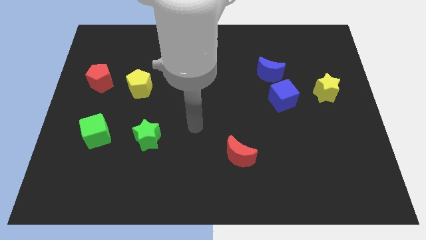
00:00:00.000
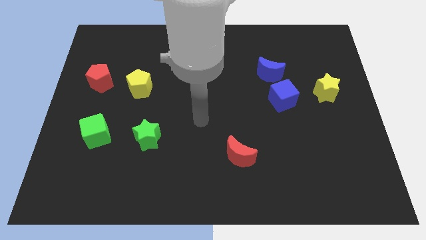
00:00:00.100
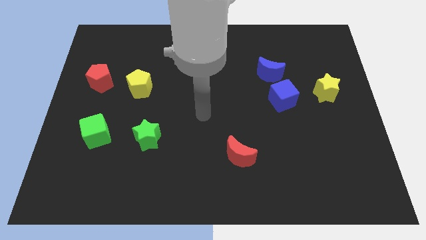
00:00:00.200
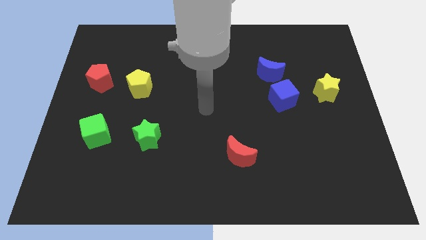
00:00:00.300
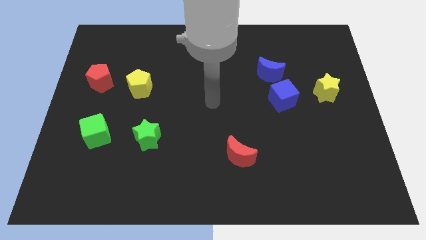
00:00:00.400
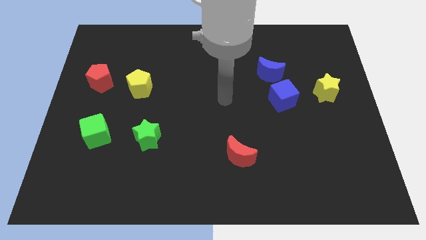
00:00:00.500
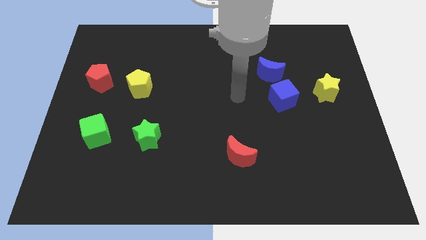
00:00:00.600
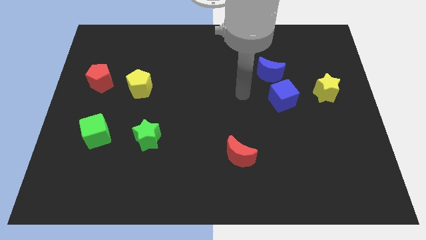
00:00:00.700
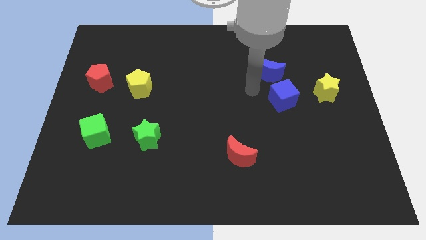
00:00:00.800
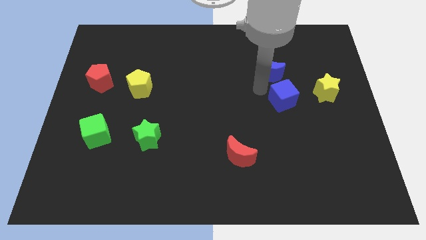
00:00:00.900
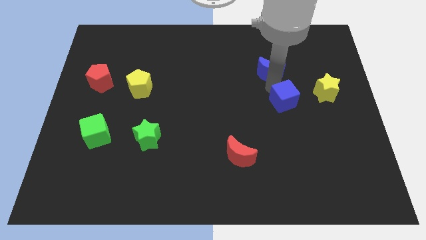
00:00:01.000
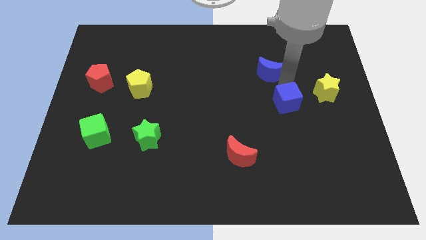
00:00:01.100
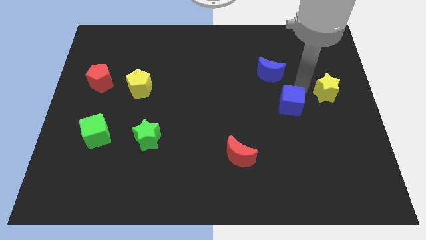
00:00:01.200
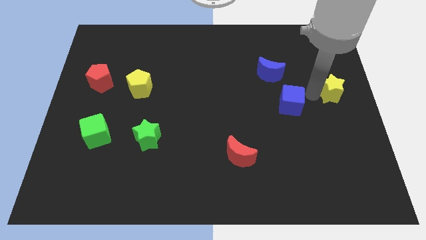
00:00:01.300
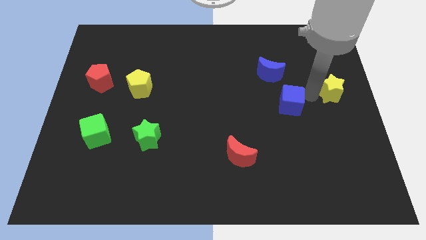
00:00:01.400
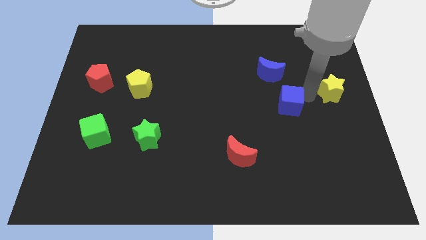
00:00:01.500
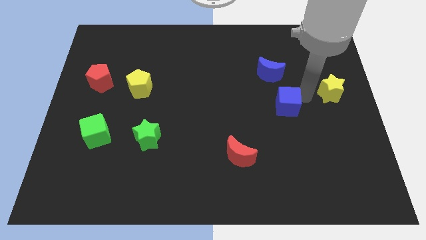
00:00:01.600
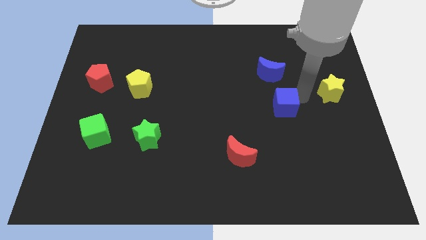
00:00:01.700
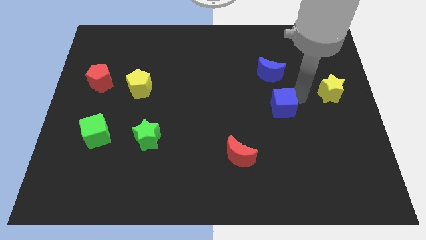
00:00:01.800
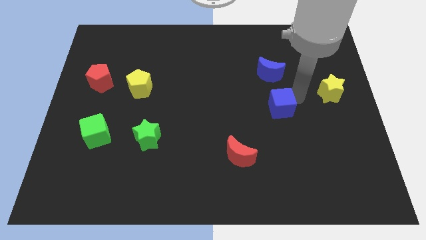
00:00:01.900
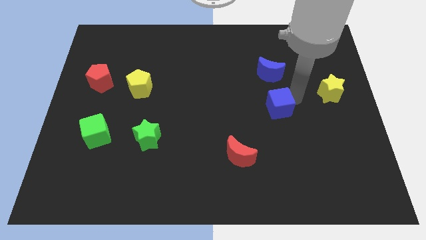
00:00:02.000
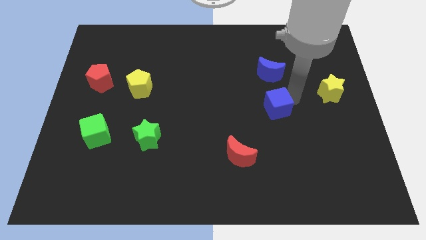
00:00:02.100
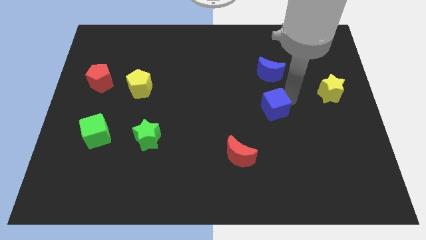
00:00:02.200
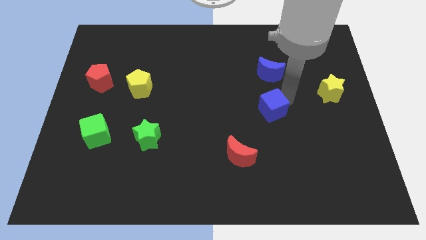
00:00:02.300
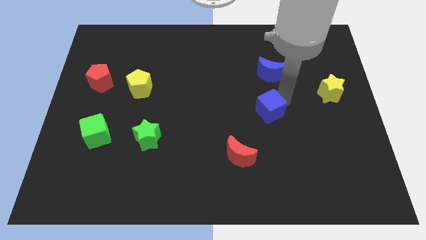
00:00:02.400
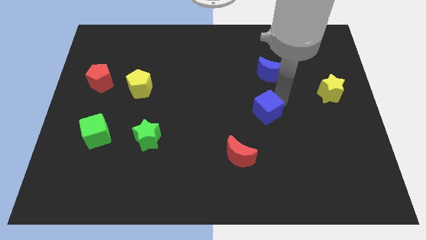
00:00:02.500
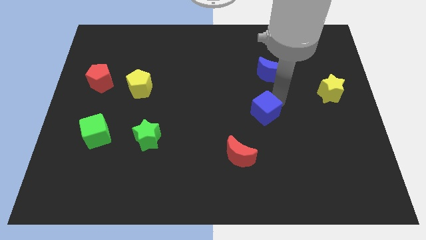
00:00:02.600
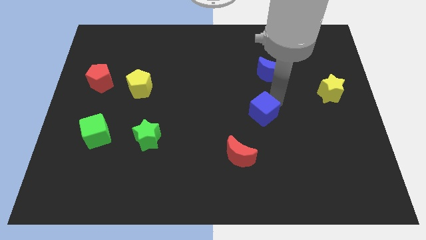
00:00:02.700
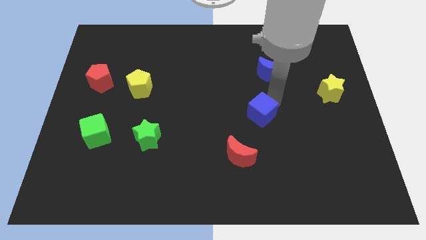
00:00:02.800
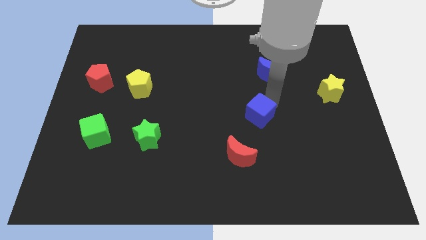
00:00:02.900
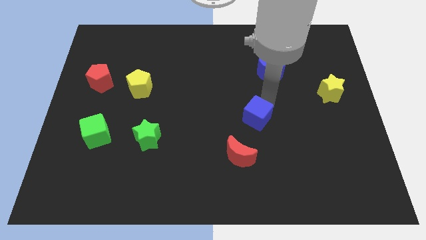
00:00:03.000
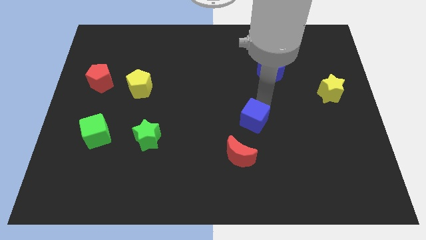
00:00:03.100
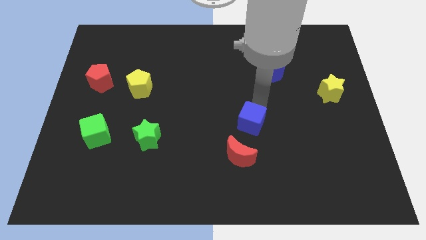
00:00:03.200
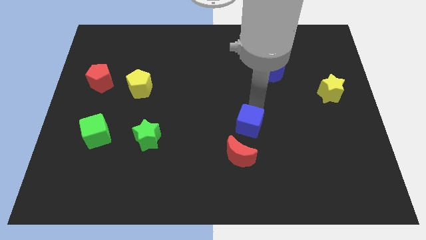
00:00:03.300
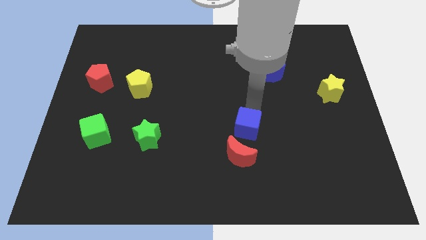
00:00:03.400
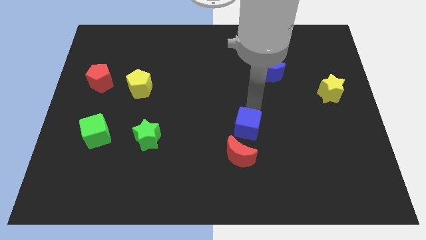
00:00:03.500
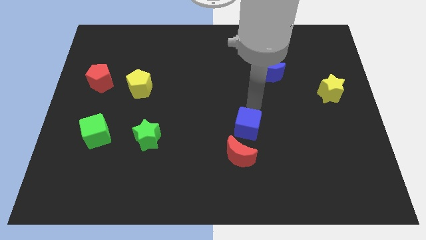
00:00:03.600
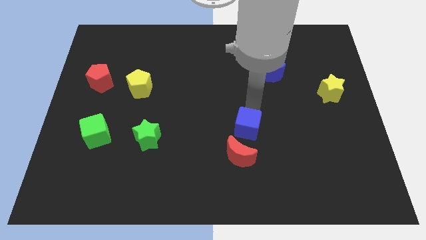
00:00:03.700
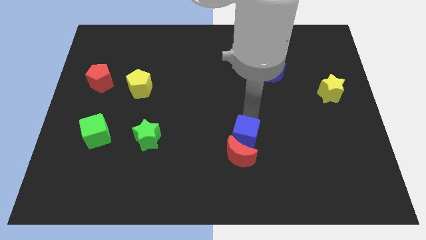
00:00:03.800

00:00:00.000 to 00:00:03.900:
put the blue cube next to the red moon

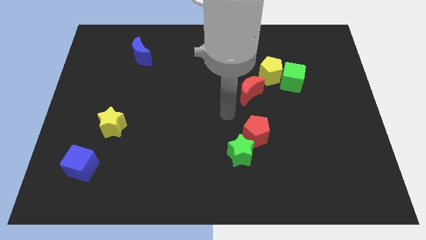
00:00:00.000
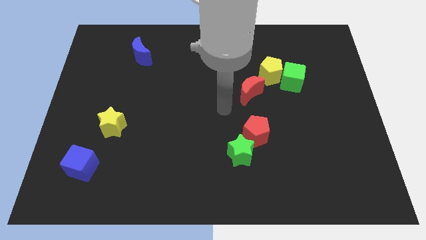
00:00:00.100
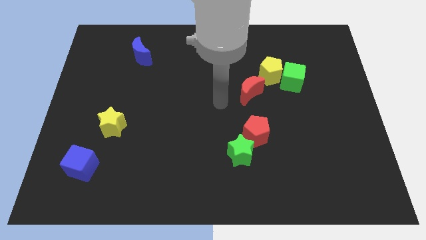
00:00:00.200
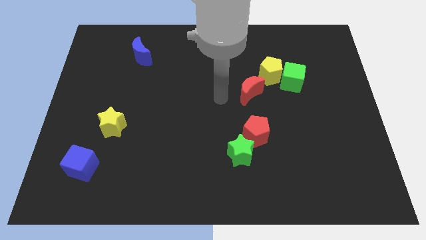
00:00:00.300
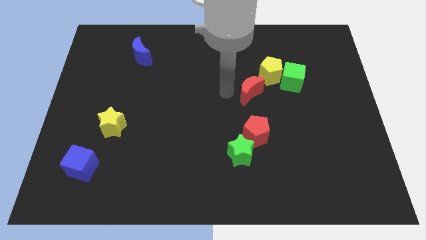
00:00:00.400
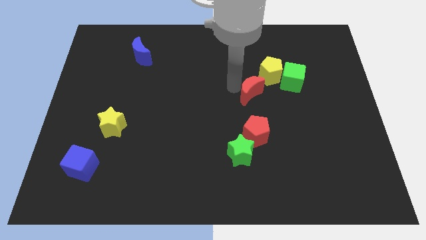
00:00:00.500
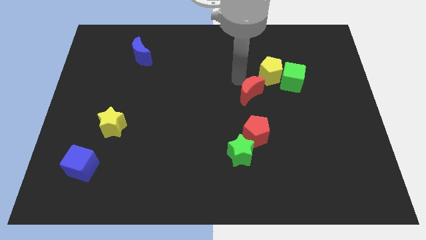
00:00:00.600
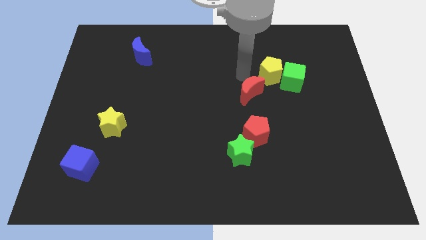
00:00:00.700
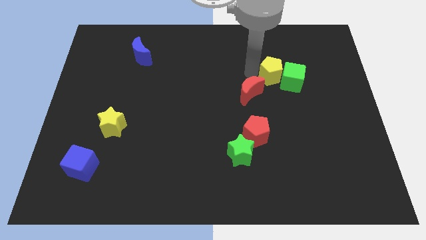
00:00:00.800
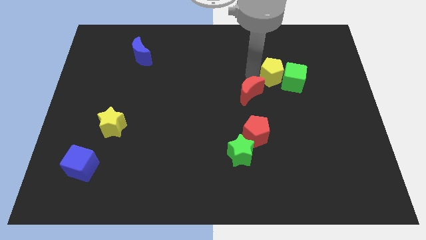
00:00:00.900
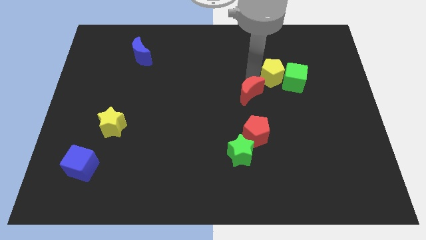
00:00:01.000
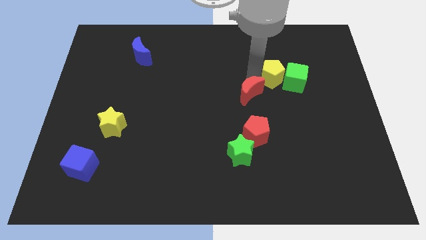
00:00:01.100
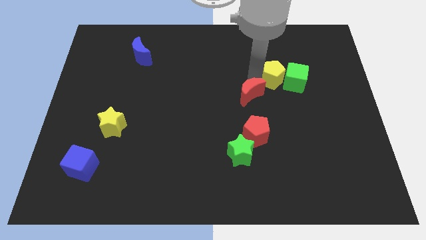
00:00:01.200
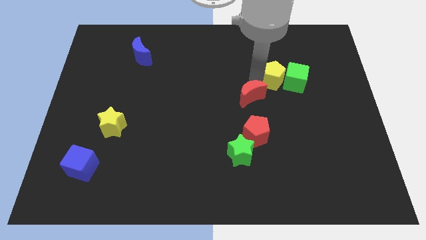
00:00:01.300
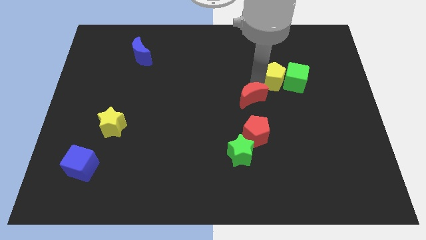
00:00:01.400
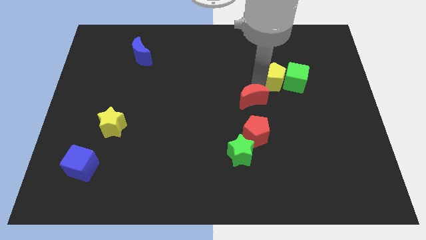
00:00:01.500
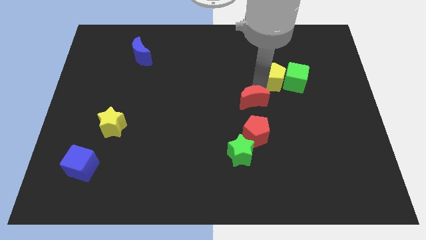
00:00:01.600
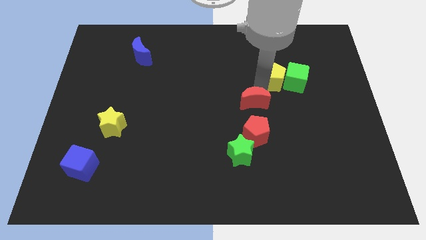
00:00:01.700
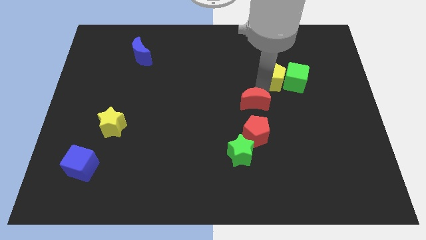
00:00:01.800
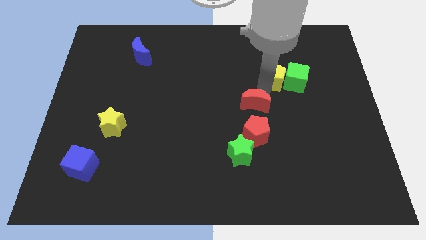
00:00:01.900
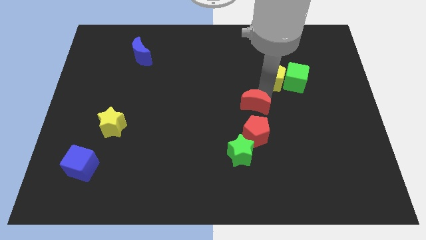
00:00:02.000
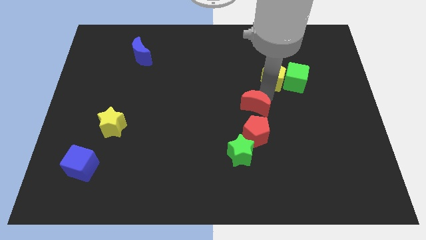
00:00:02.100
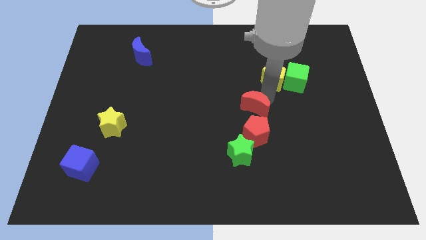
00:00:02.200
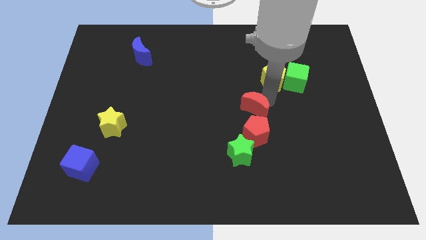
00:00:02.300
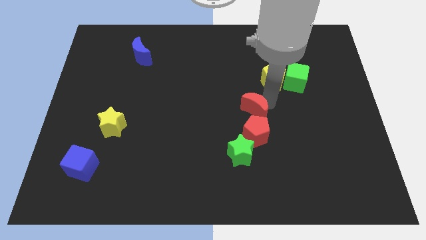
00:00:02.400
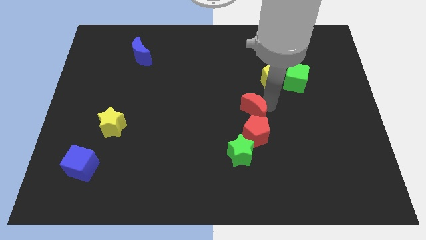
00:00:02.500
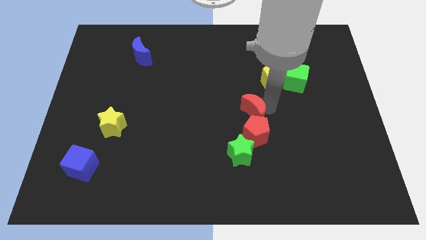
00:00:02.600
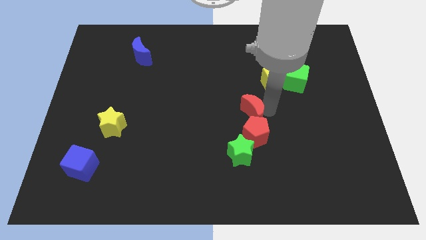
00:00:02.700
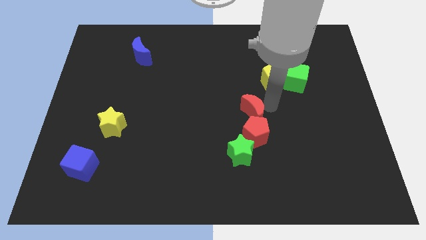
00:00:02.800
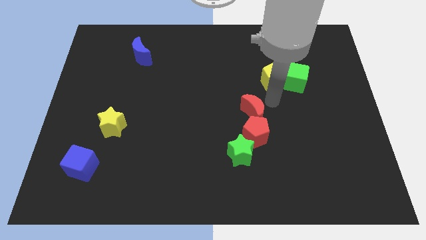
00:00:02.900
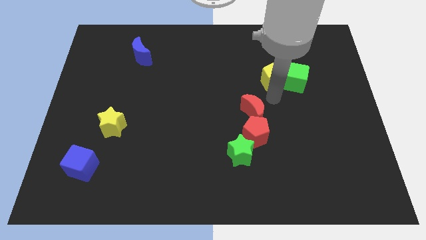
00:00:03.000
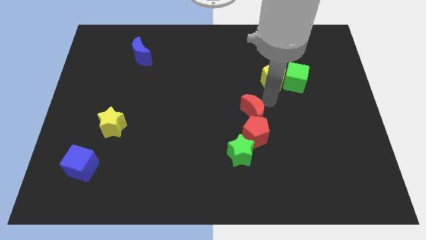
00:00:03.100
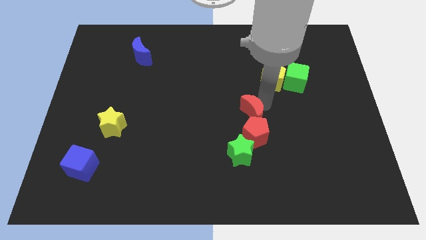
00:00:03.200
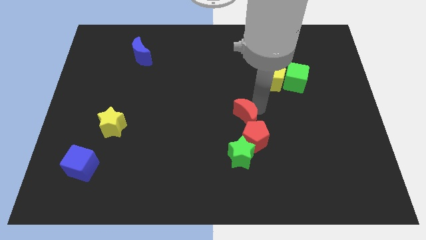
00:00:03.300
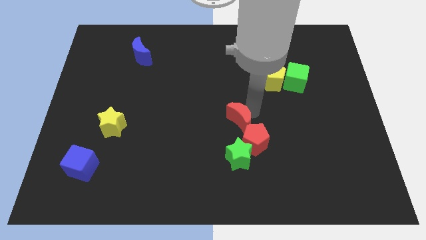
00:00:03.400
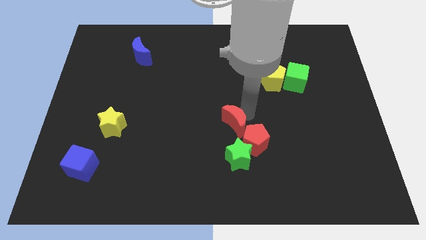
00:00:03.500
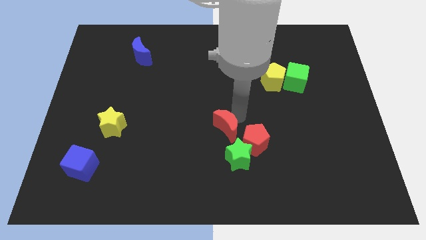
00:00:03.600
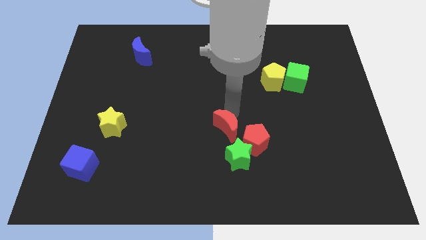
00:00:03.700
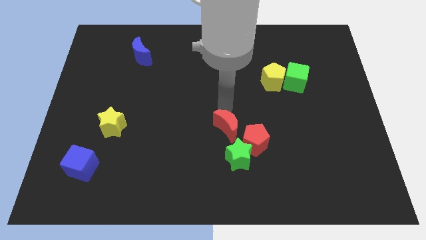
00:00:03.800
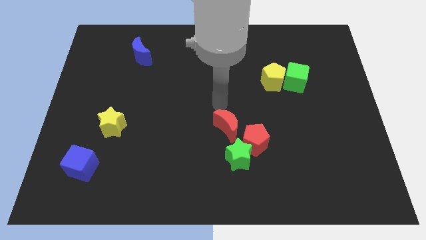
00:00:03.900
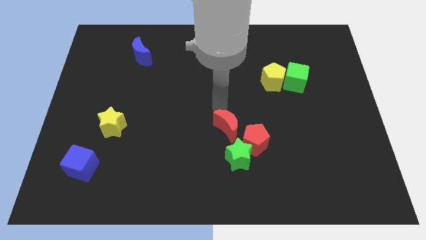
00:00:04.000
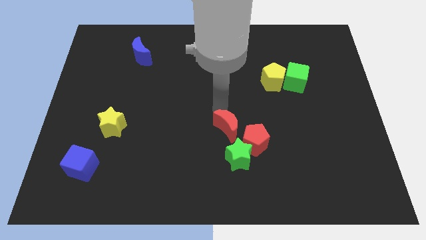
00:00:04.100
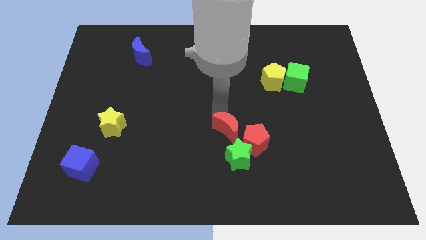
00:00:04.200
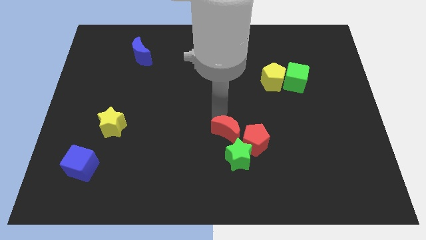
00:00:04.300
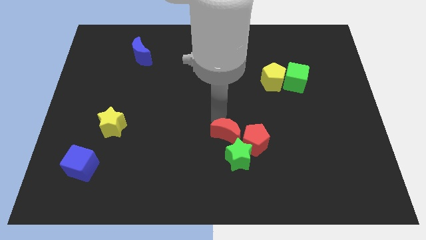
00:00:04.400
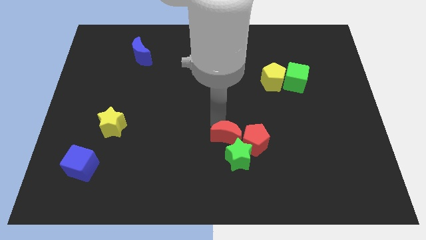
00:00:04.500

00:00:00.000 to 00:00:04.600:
move the red moon to the green star
